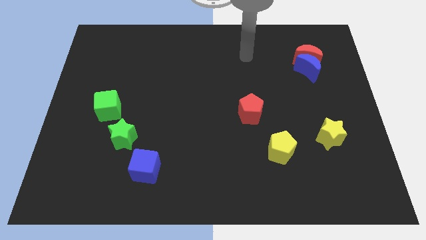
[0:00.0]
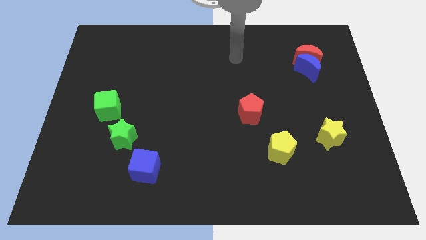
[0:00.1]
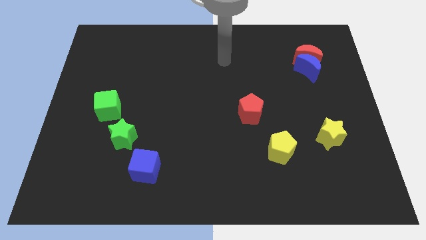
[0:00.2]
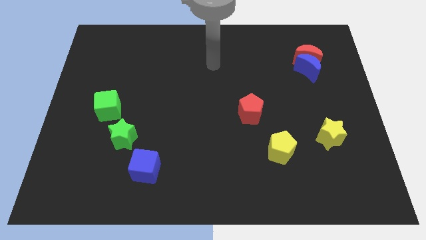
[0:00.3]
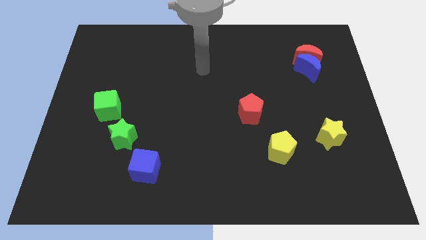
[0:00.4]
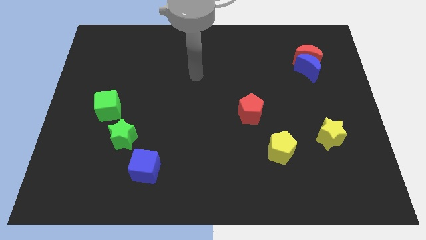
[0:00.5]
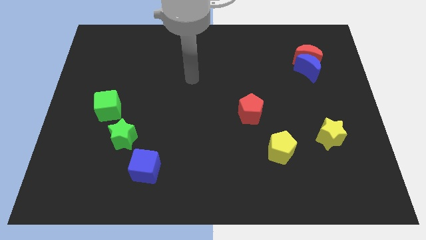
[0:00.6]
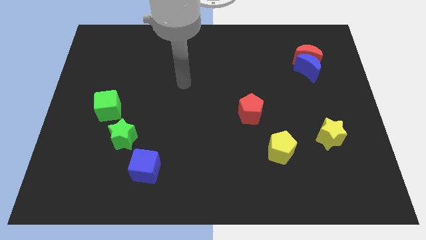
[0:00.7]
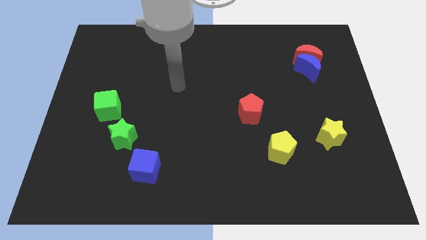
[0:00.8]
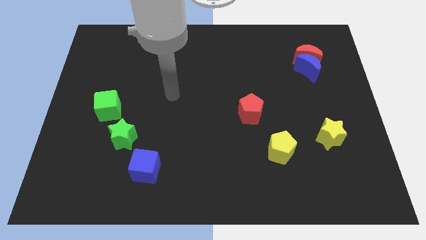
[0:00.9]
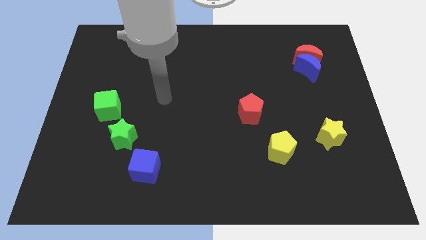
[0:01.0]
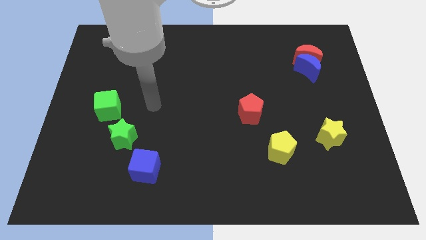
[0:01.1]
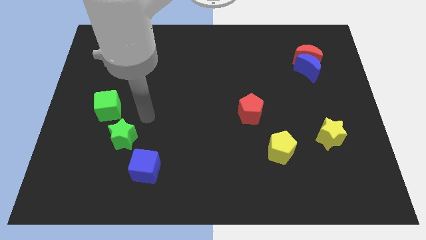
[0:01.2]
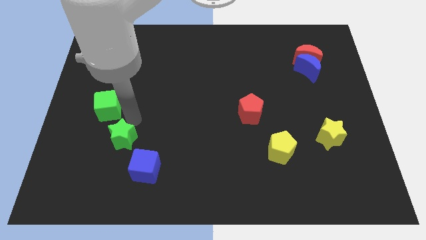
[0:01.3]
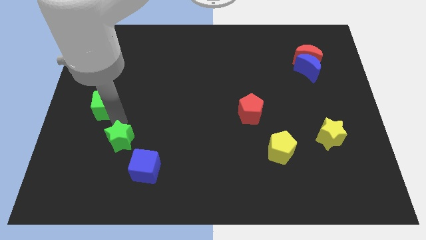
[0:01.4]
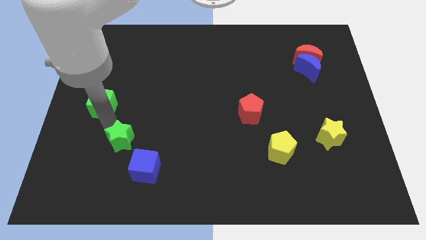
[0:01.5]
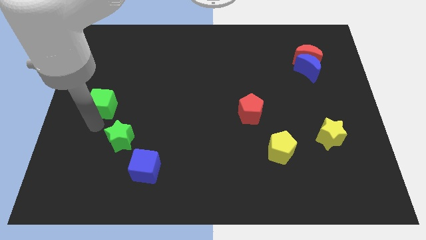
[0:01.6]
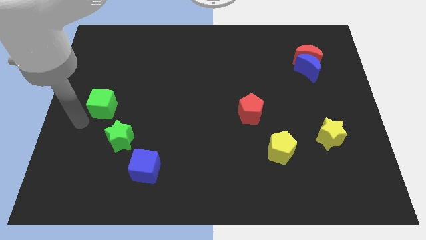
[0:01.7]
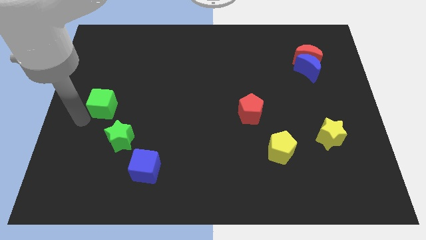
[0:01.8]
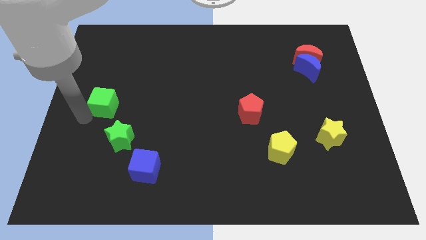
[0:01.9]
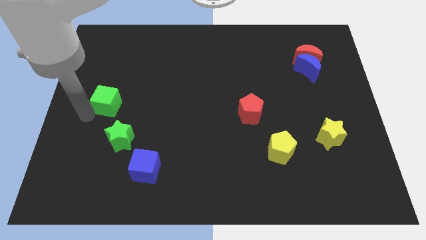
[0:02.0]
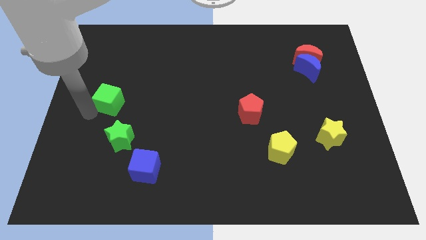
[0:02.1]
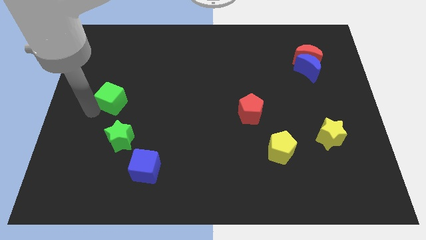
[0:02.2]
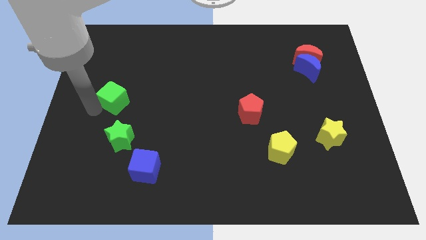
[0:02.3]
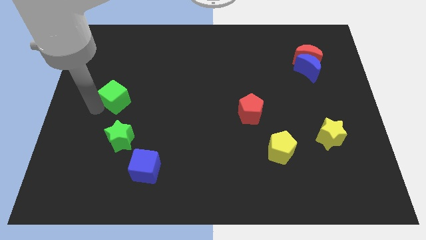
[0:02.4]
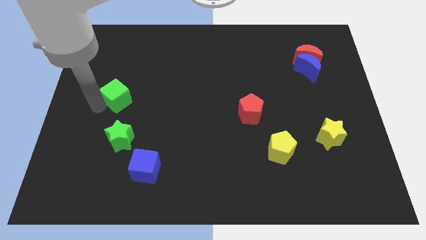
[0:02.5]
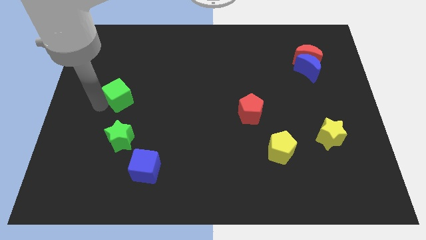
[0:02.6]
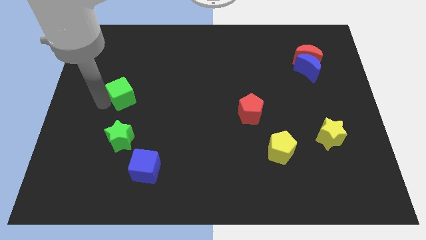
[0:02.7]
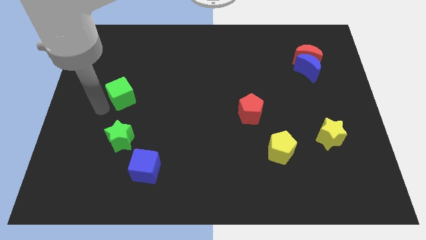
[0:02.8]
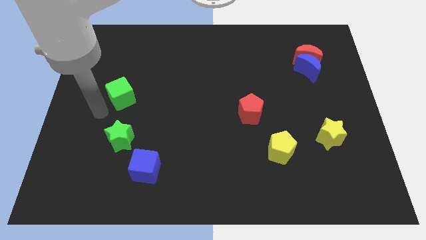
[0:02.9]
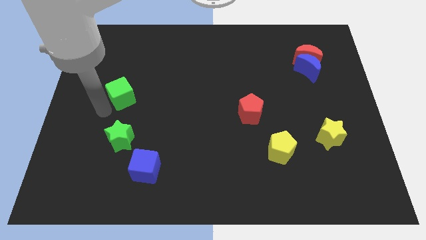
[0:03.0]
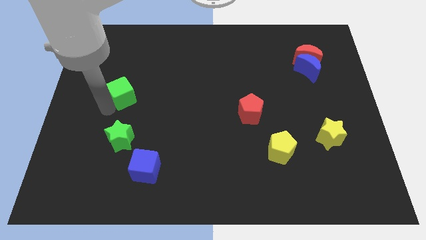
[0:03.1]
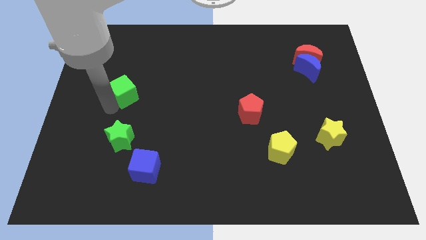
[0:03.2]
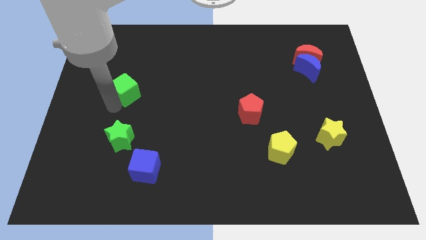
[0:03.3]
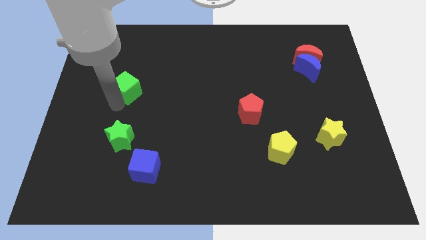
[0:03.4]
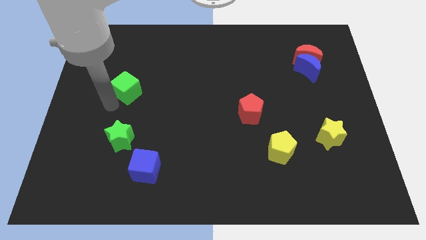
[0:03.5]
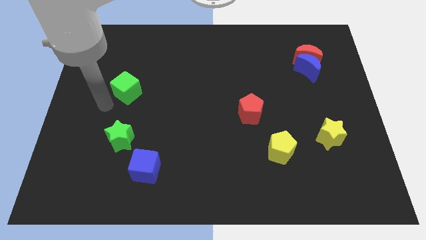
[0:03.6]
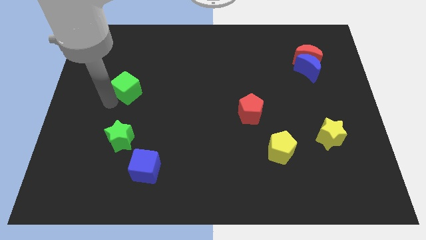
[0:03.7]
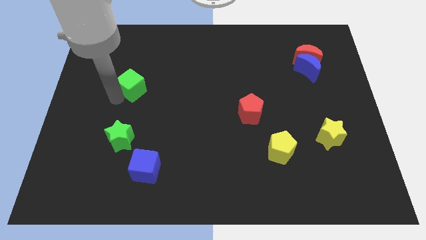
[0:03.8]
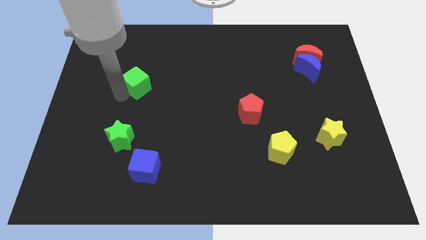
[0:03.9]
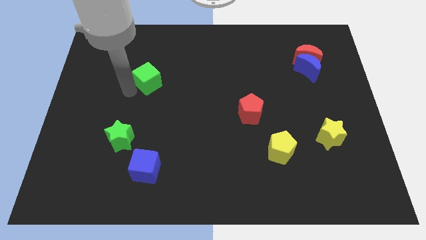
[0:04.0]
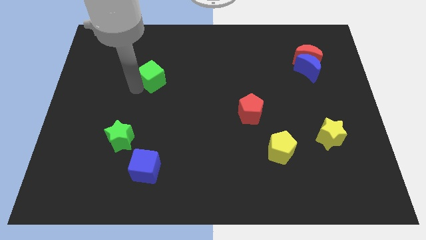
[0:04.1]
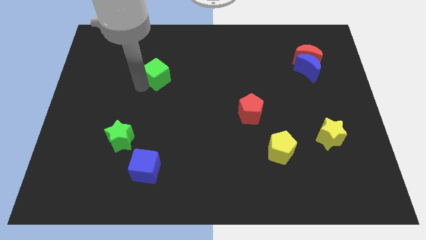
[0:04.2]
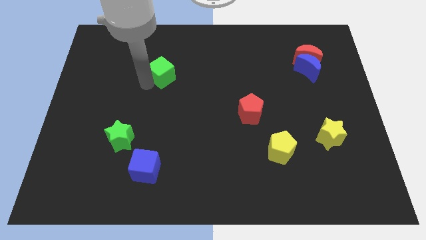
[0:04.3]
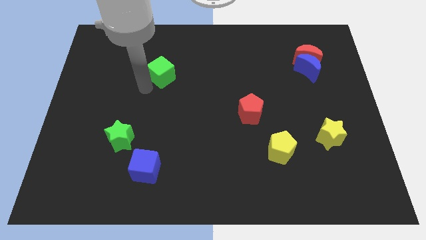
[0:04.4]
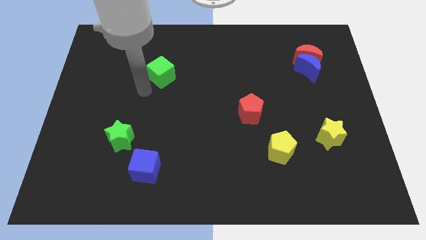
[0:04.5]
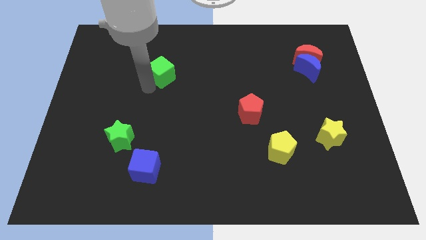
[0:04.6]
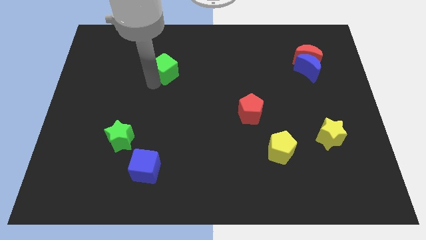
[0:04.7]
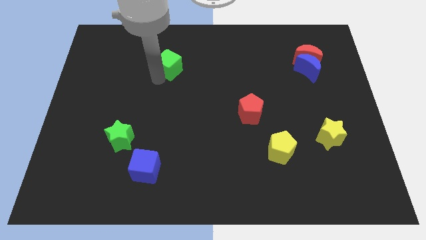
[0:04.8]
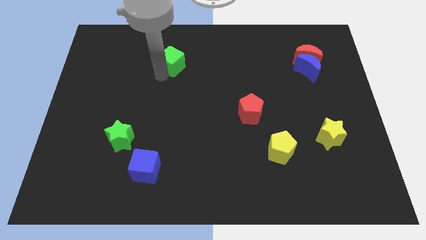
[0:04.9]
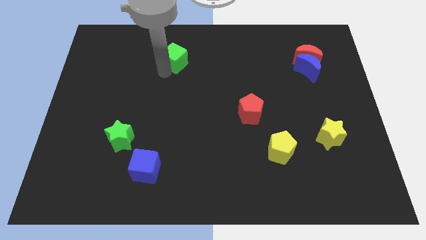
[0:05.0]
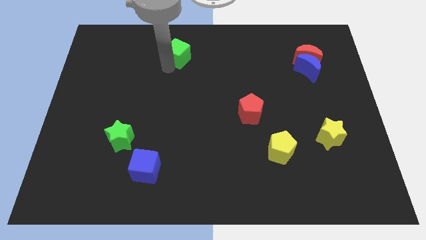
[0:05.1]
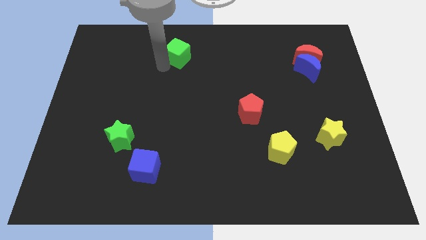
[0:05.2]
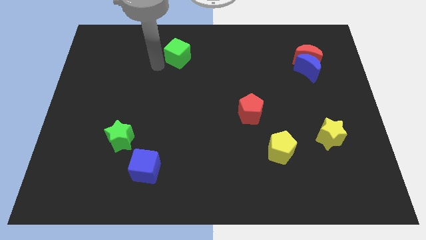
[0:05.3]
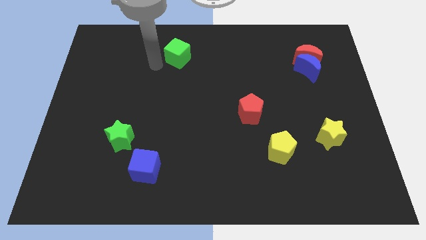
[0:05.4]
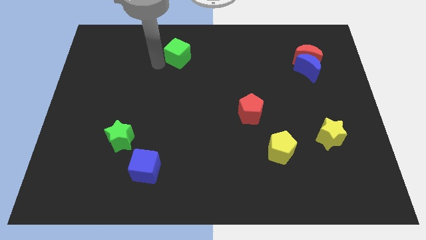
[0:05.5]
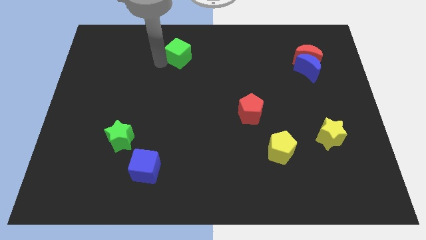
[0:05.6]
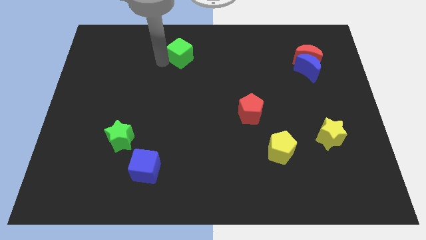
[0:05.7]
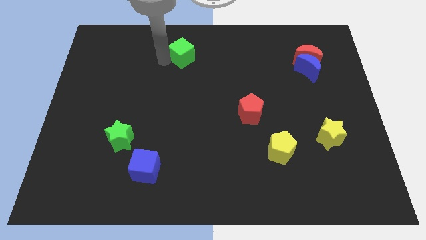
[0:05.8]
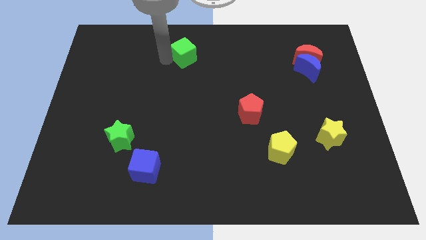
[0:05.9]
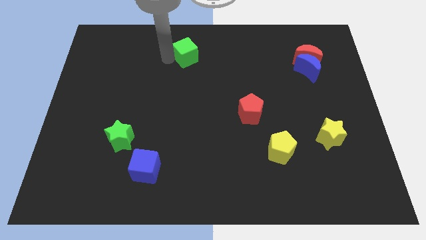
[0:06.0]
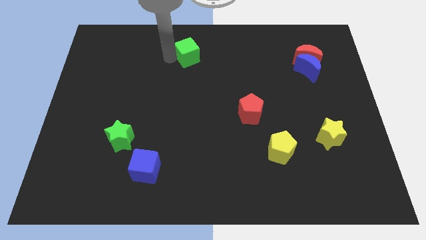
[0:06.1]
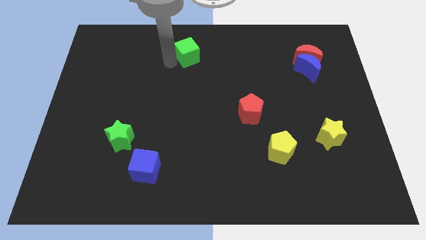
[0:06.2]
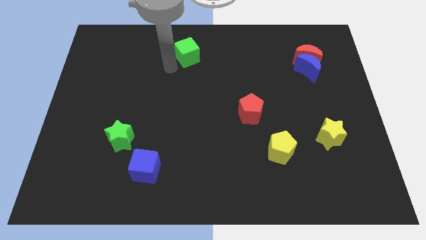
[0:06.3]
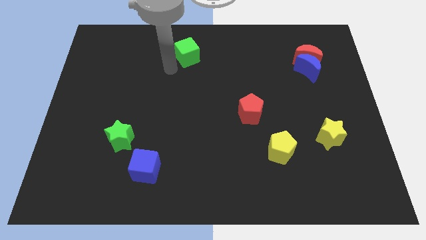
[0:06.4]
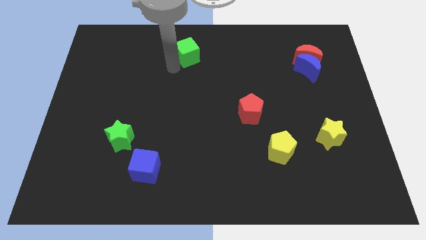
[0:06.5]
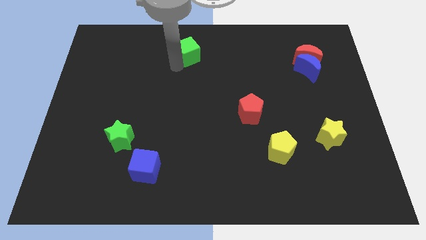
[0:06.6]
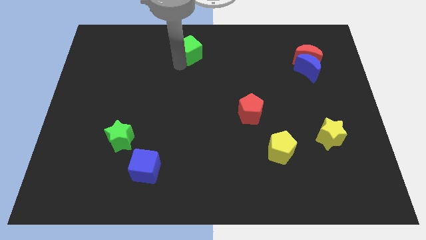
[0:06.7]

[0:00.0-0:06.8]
slide the green cube to the top

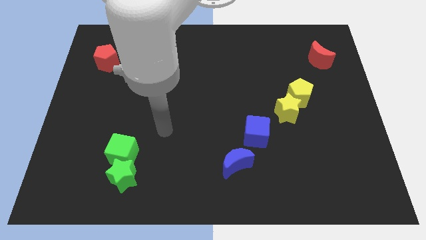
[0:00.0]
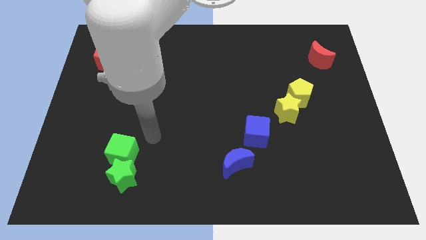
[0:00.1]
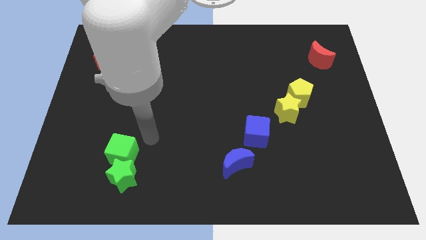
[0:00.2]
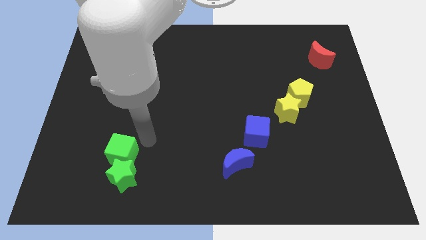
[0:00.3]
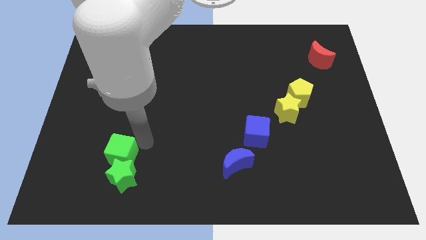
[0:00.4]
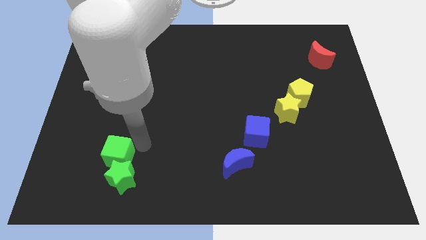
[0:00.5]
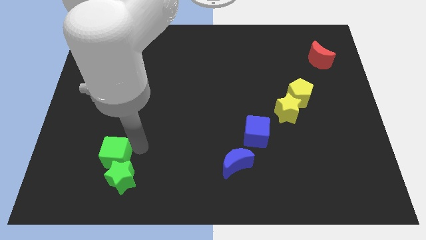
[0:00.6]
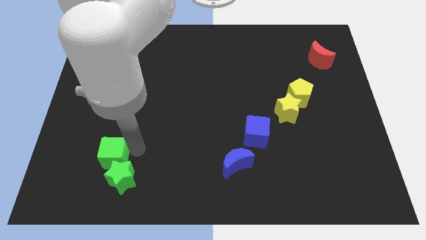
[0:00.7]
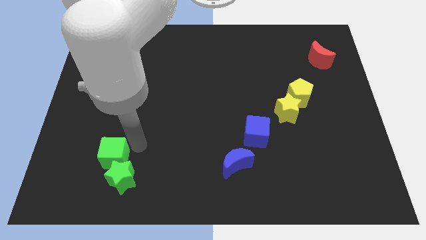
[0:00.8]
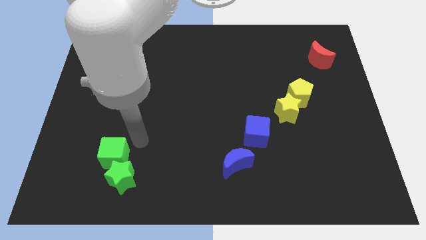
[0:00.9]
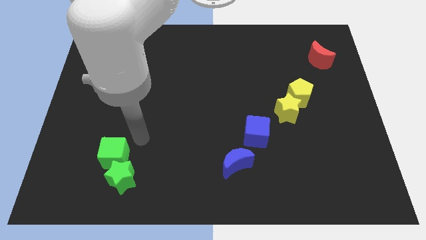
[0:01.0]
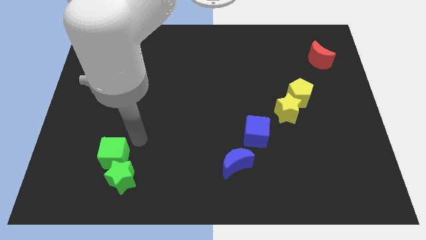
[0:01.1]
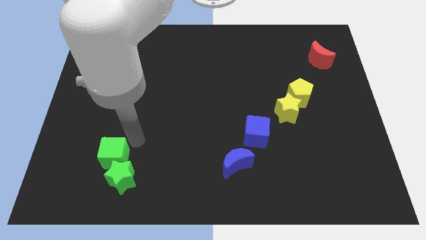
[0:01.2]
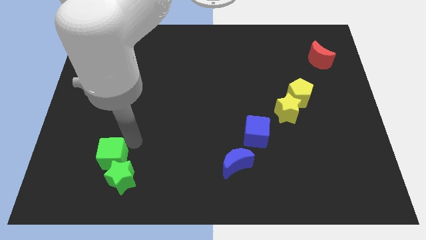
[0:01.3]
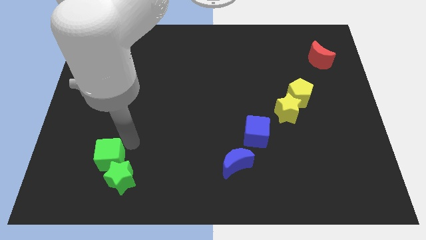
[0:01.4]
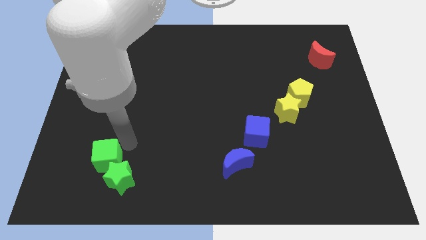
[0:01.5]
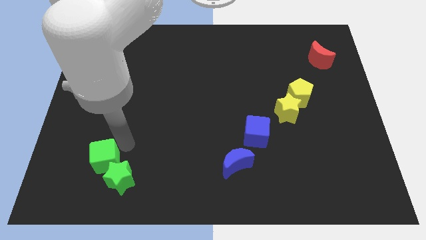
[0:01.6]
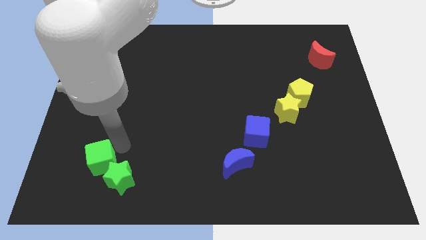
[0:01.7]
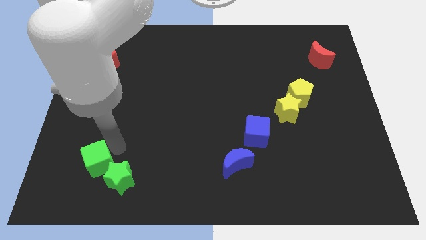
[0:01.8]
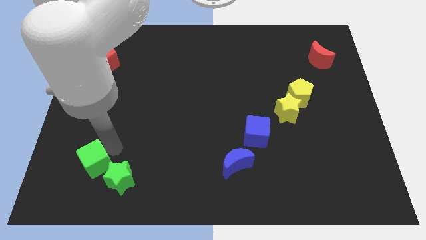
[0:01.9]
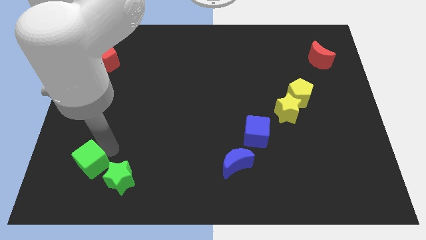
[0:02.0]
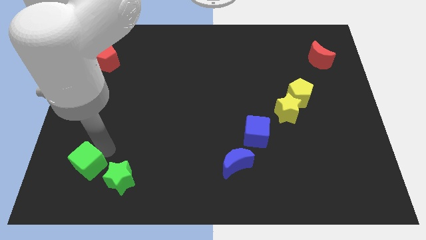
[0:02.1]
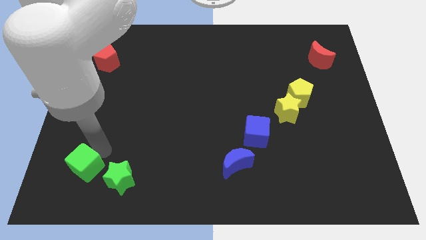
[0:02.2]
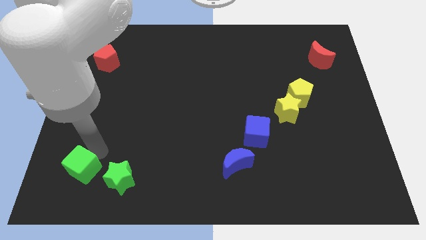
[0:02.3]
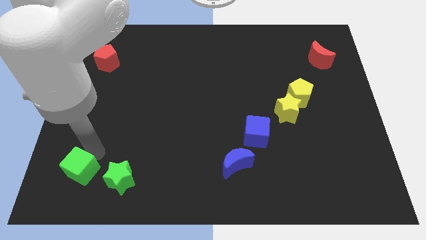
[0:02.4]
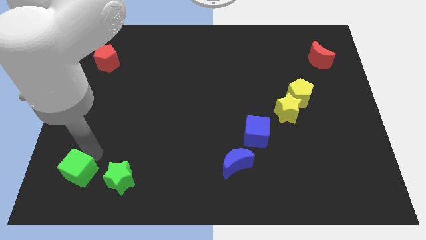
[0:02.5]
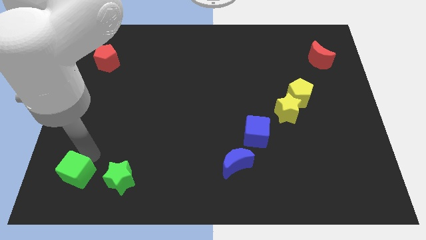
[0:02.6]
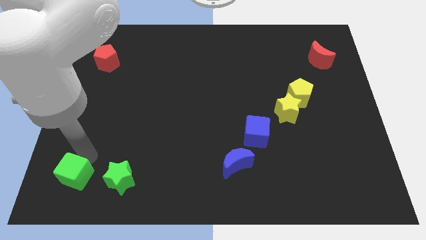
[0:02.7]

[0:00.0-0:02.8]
put the green cube to the lower left corner
